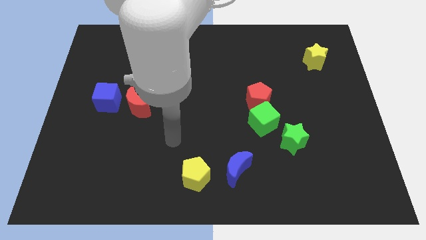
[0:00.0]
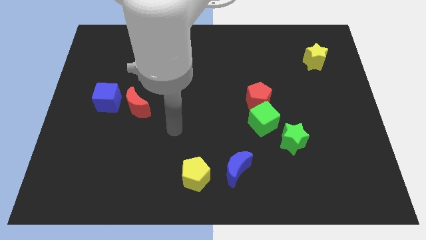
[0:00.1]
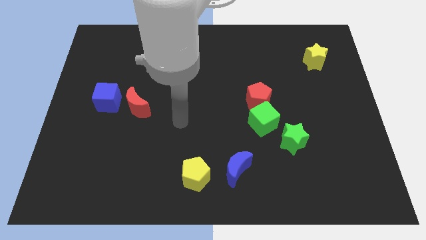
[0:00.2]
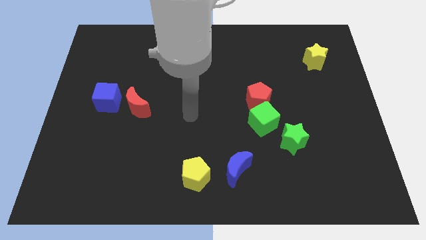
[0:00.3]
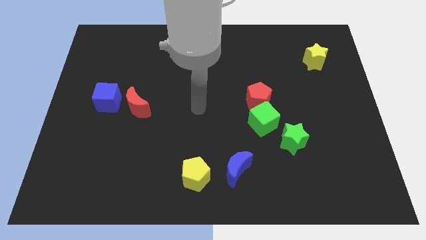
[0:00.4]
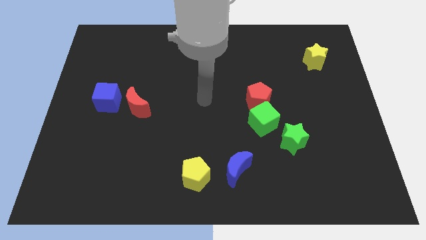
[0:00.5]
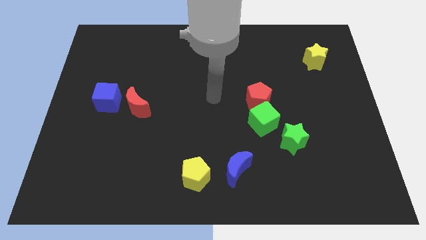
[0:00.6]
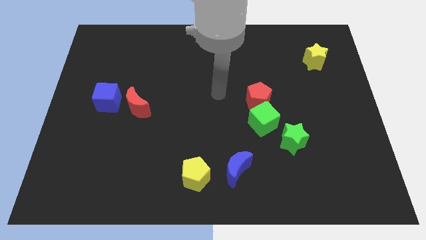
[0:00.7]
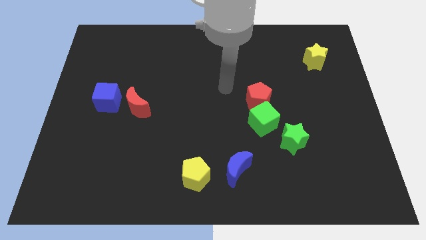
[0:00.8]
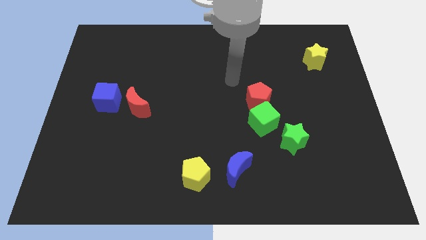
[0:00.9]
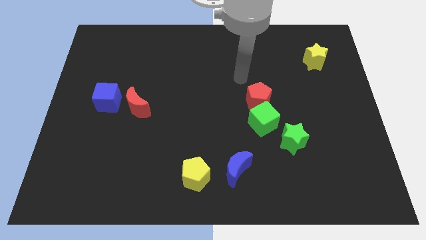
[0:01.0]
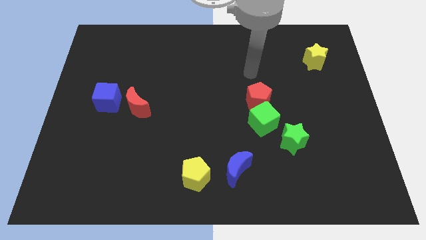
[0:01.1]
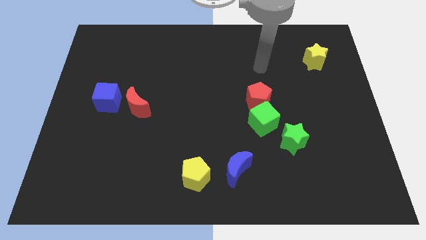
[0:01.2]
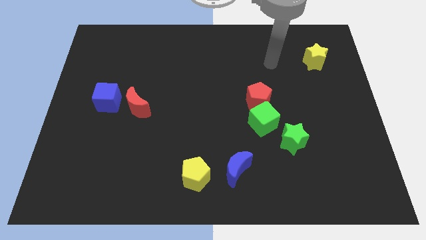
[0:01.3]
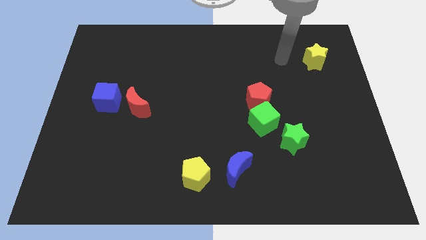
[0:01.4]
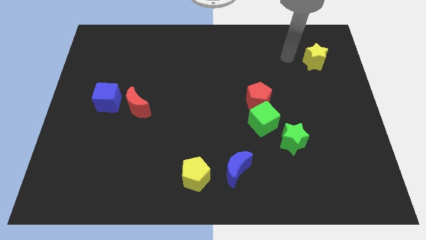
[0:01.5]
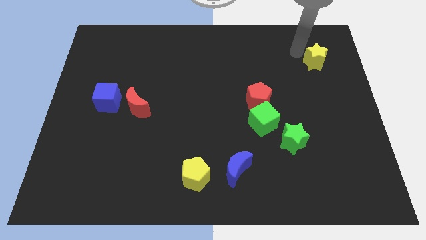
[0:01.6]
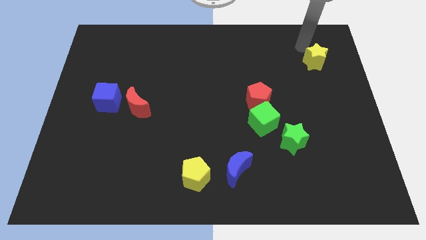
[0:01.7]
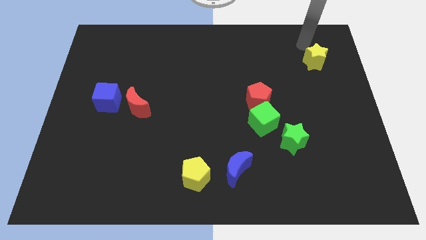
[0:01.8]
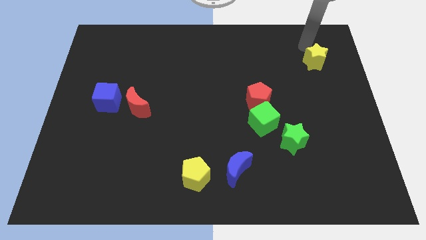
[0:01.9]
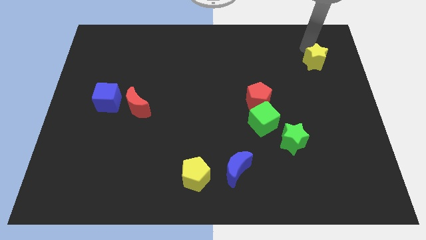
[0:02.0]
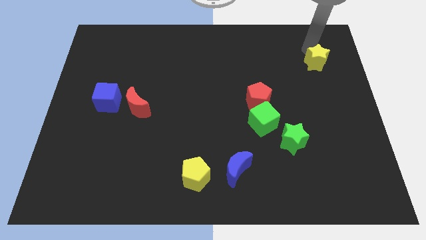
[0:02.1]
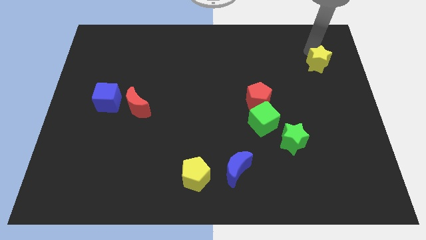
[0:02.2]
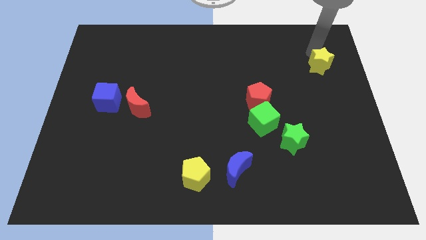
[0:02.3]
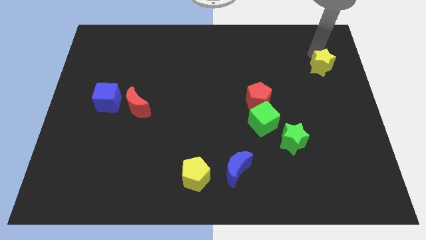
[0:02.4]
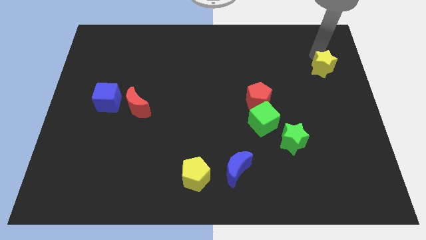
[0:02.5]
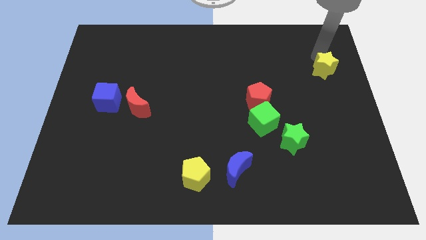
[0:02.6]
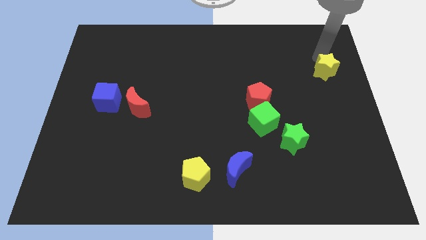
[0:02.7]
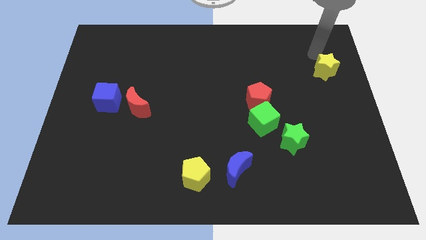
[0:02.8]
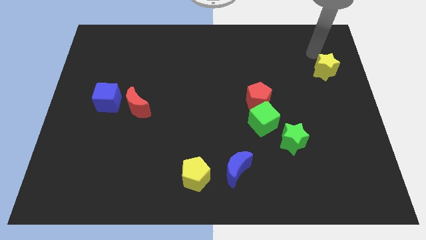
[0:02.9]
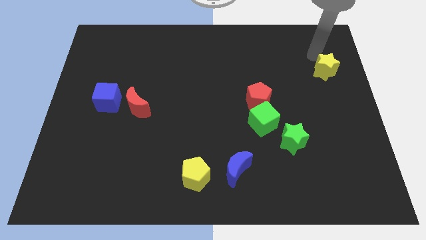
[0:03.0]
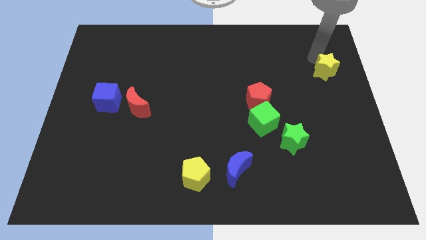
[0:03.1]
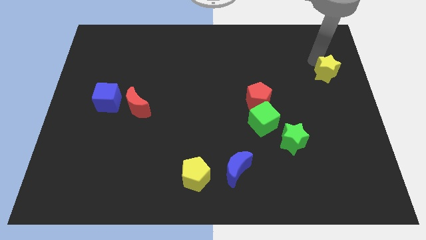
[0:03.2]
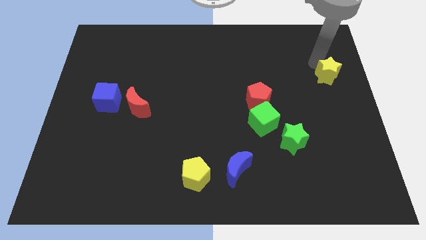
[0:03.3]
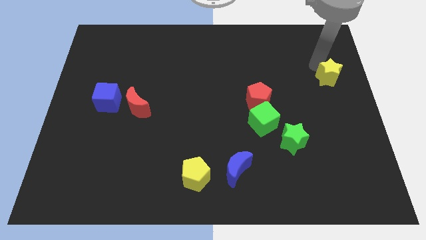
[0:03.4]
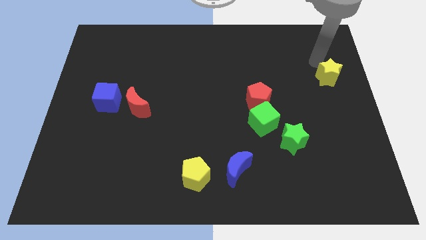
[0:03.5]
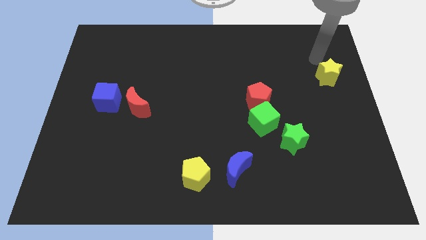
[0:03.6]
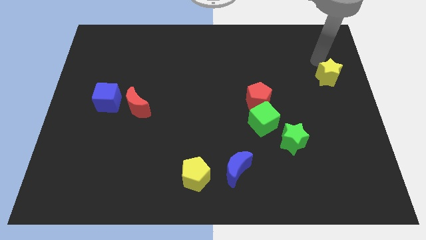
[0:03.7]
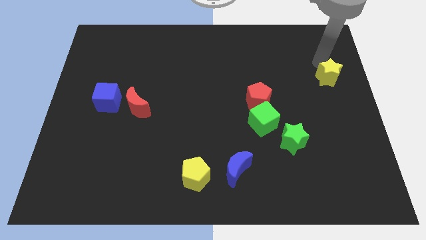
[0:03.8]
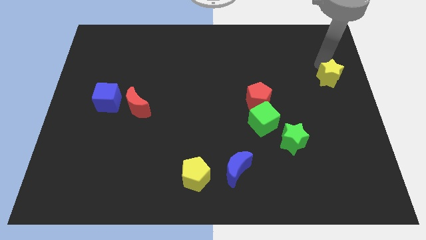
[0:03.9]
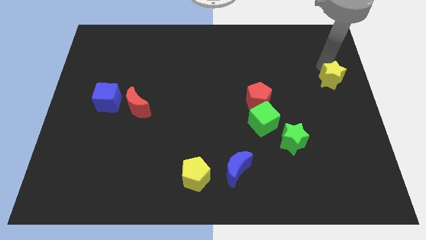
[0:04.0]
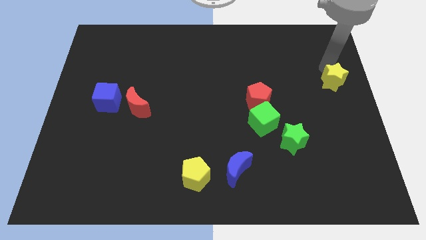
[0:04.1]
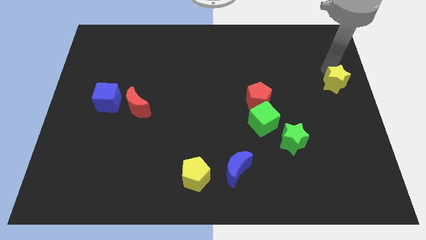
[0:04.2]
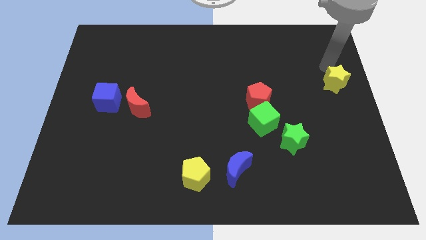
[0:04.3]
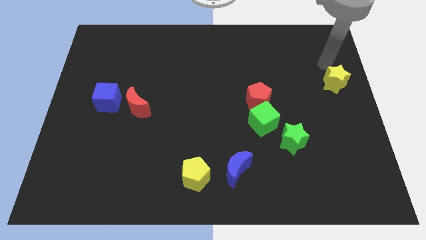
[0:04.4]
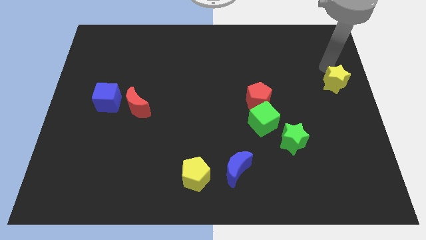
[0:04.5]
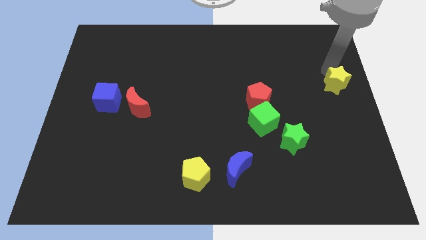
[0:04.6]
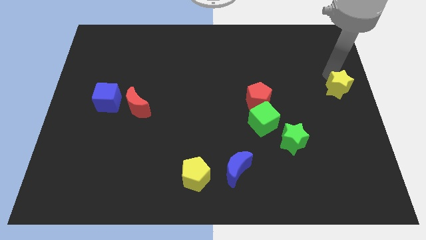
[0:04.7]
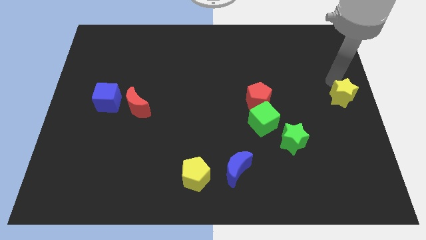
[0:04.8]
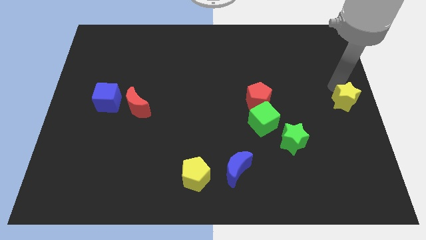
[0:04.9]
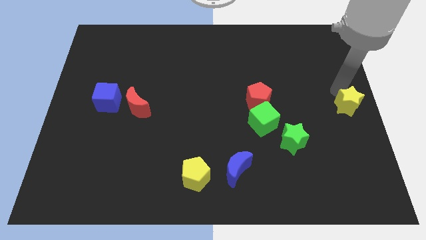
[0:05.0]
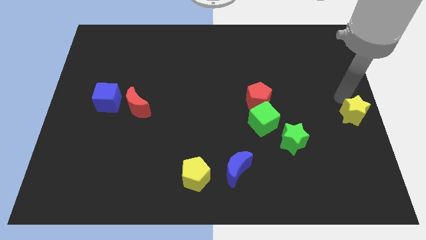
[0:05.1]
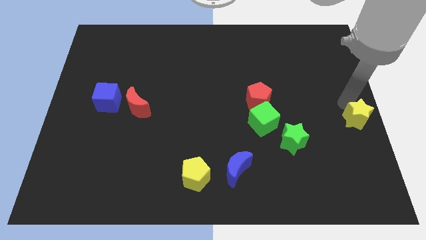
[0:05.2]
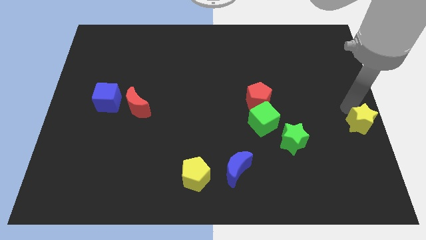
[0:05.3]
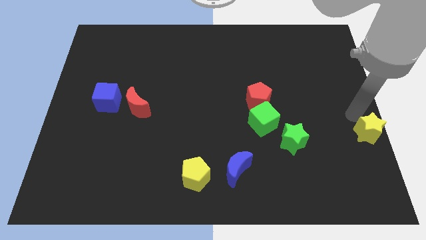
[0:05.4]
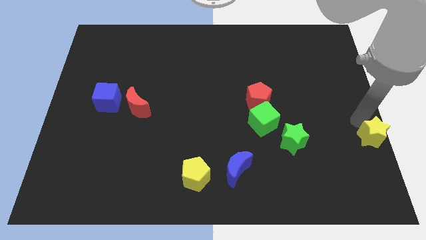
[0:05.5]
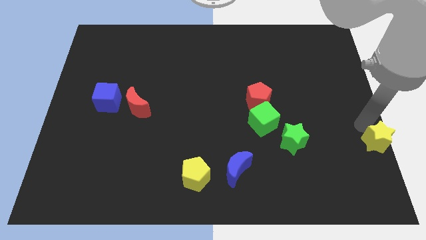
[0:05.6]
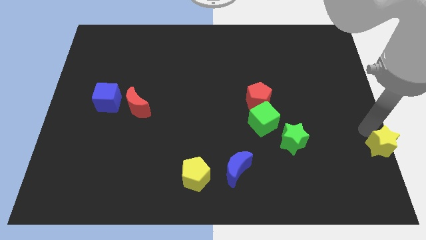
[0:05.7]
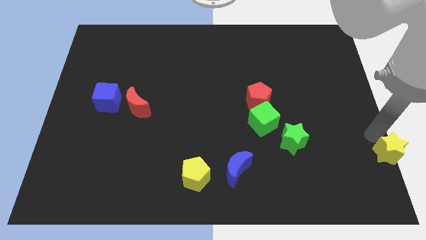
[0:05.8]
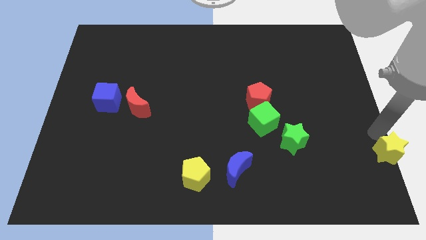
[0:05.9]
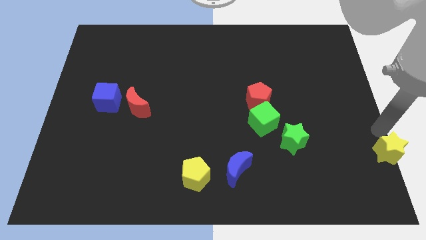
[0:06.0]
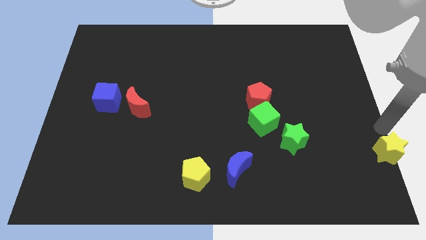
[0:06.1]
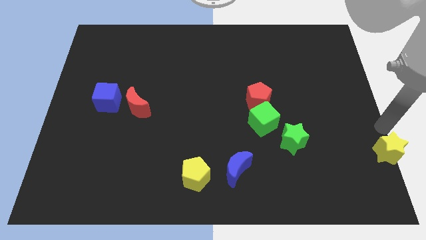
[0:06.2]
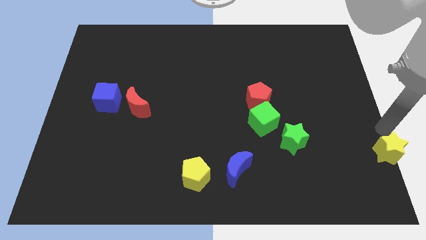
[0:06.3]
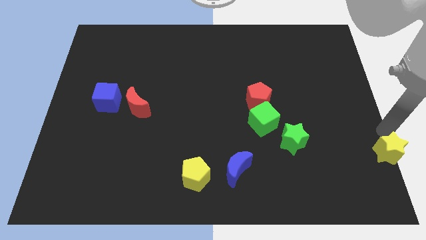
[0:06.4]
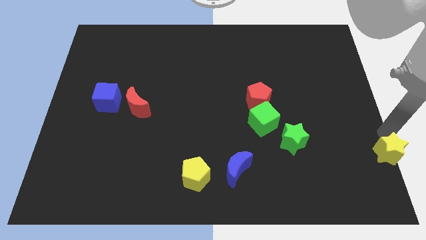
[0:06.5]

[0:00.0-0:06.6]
slide the yellow star to the bottom right corner
